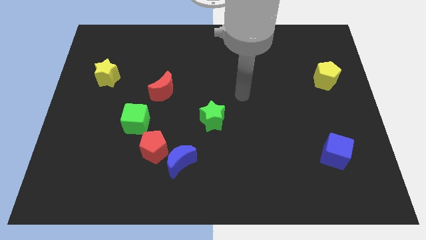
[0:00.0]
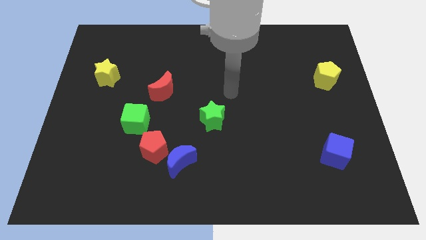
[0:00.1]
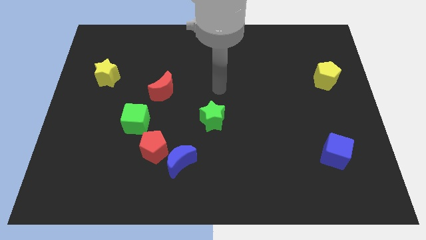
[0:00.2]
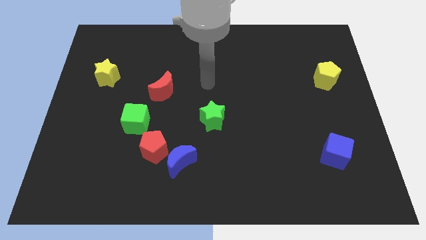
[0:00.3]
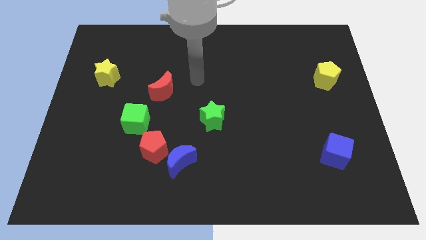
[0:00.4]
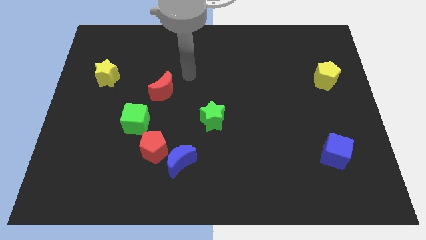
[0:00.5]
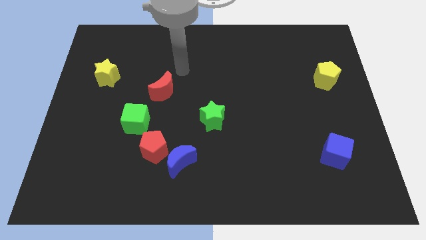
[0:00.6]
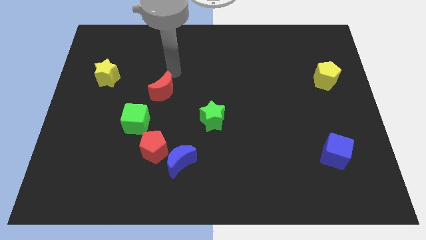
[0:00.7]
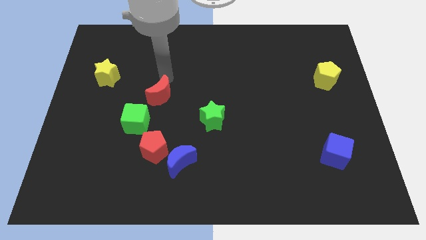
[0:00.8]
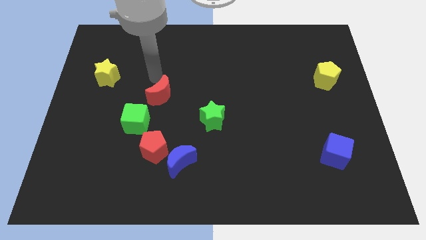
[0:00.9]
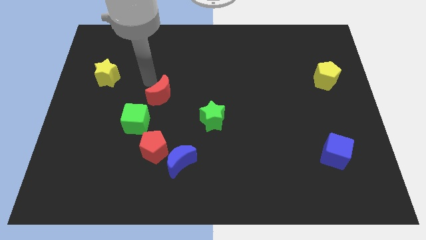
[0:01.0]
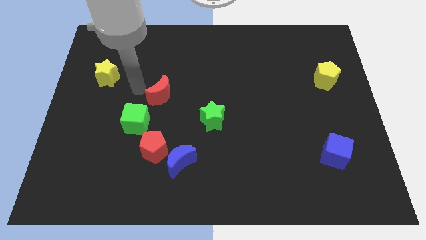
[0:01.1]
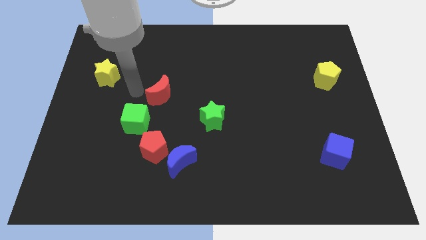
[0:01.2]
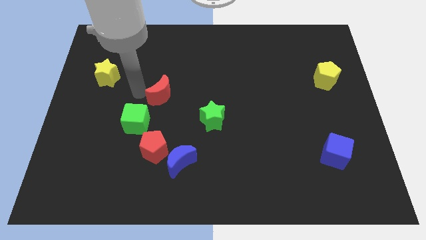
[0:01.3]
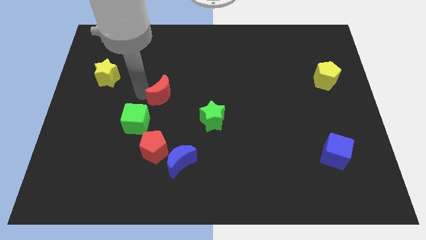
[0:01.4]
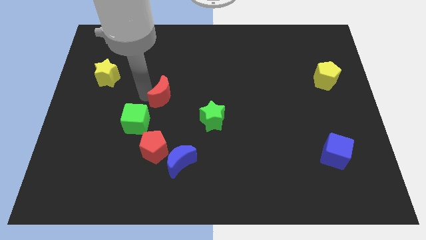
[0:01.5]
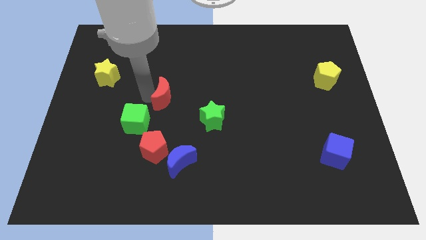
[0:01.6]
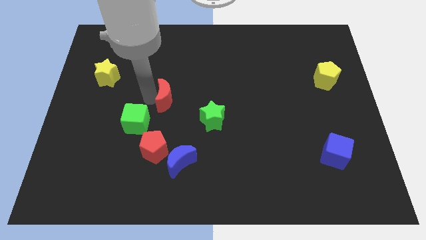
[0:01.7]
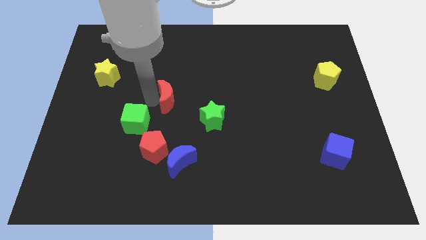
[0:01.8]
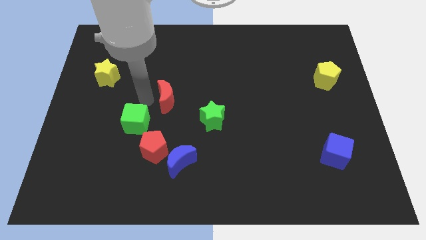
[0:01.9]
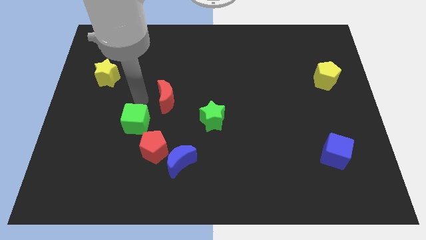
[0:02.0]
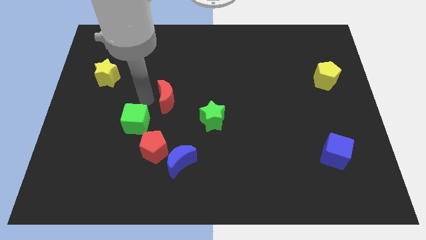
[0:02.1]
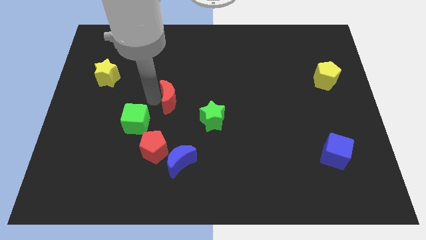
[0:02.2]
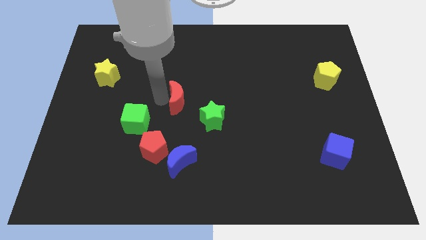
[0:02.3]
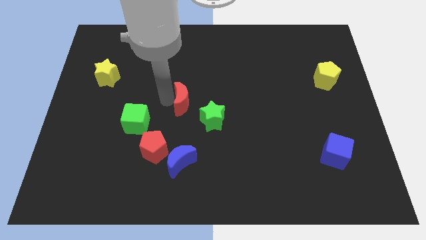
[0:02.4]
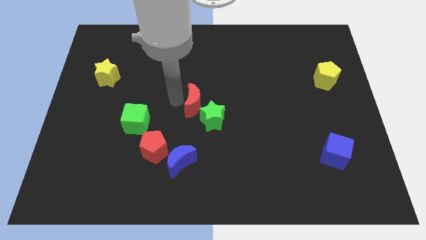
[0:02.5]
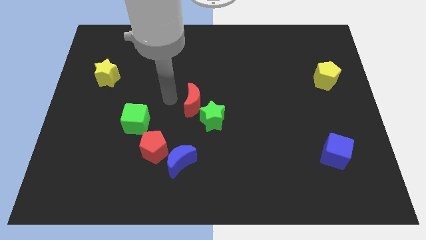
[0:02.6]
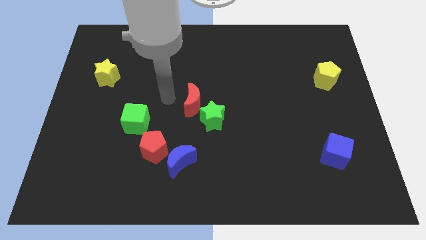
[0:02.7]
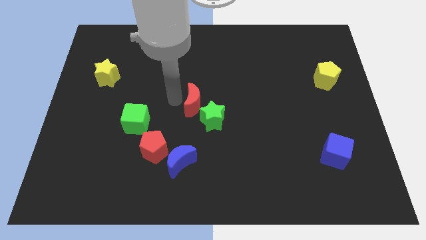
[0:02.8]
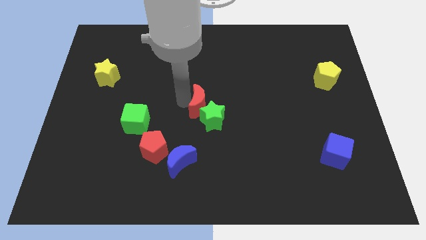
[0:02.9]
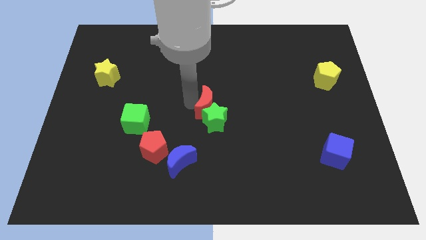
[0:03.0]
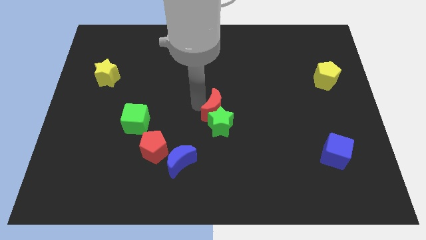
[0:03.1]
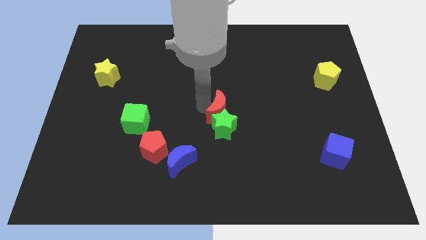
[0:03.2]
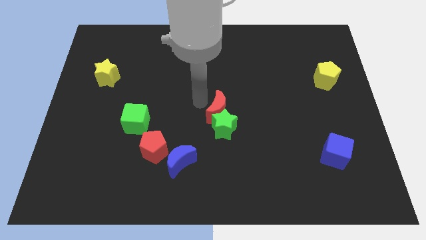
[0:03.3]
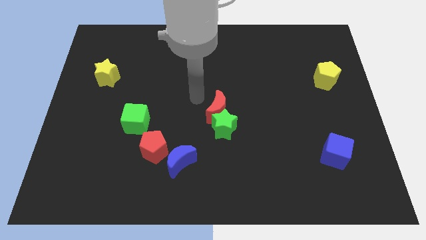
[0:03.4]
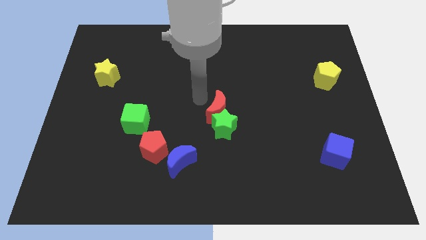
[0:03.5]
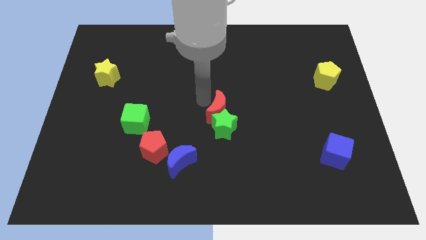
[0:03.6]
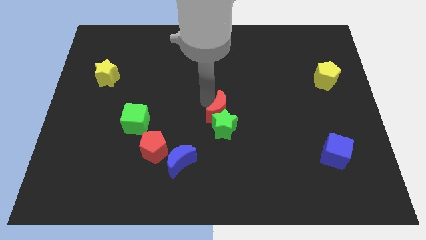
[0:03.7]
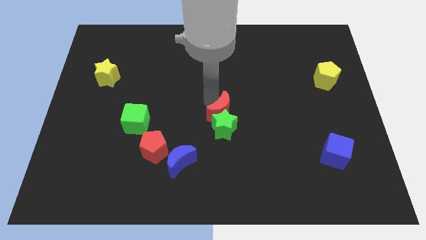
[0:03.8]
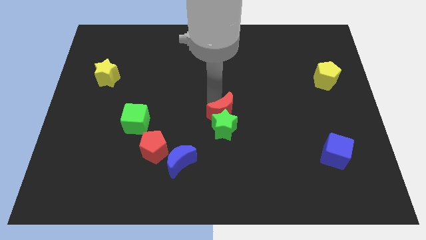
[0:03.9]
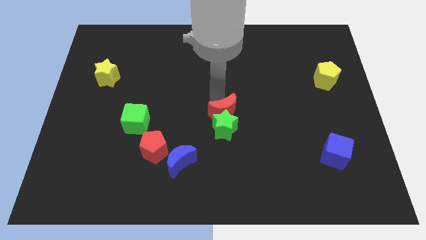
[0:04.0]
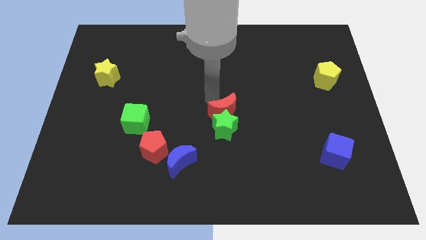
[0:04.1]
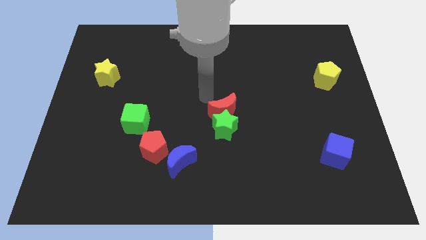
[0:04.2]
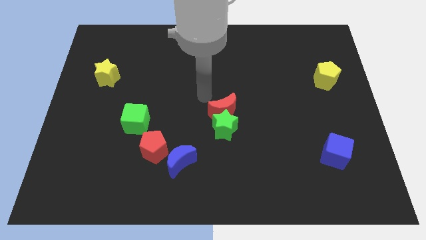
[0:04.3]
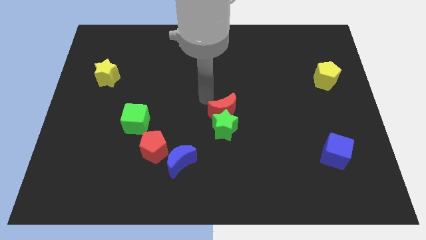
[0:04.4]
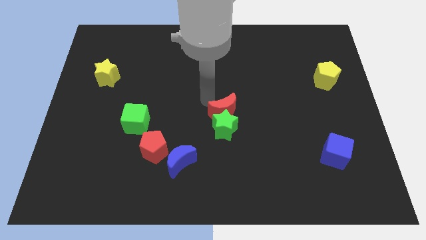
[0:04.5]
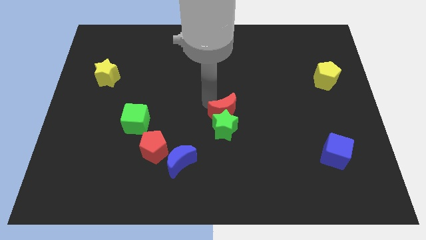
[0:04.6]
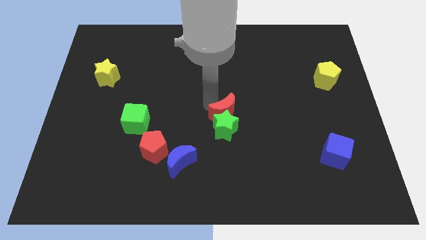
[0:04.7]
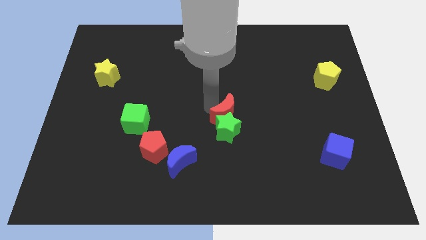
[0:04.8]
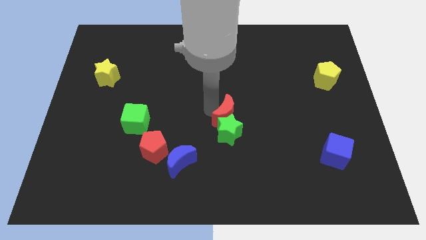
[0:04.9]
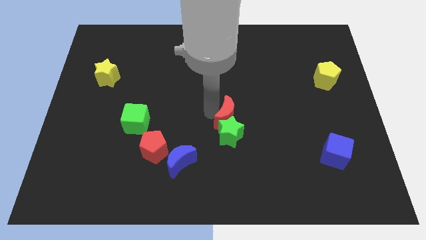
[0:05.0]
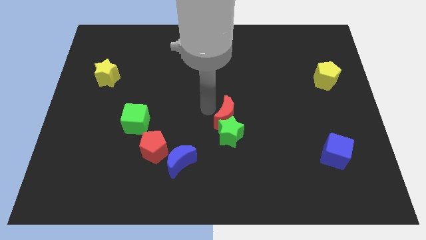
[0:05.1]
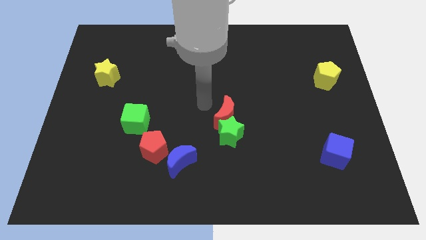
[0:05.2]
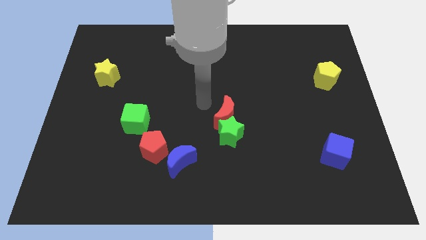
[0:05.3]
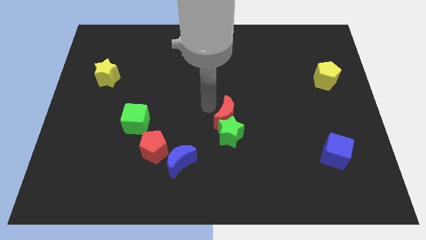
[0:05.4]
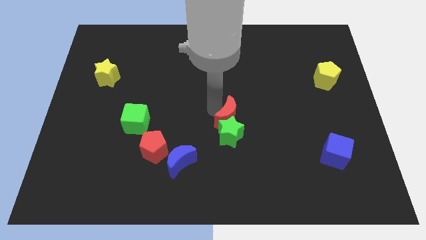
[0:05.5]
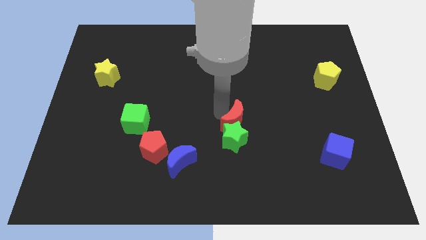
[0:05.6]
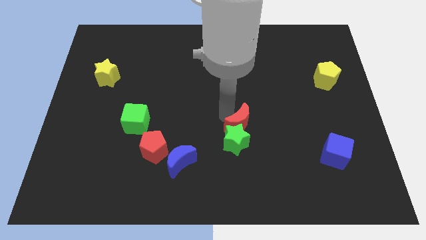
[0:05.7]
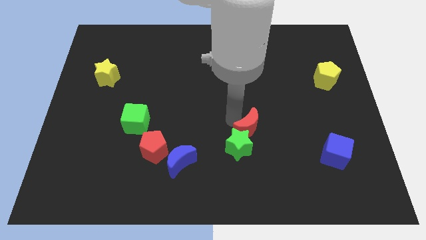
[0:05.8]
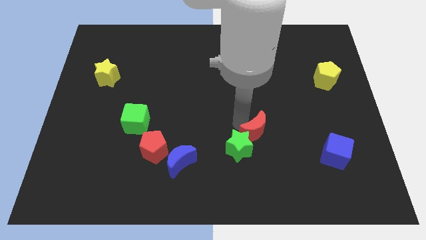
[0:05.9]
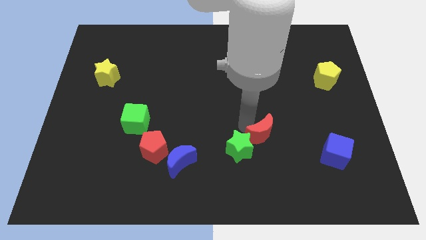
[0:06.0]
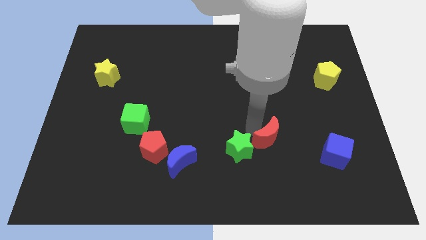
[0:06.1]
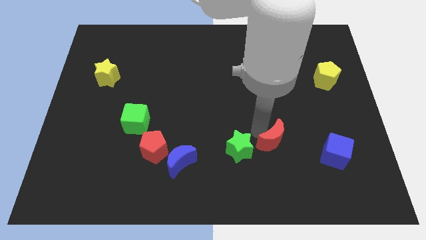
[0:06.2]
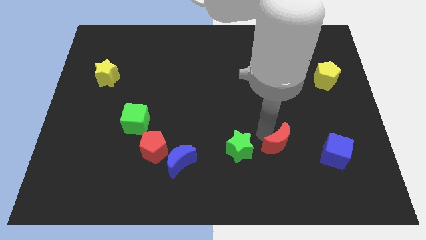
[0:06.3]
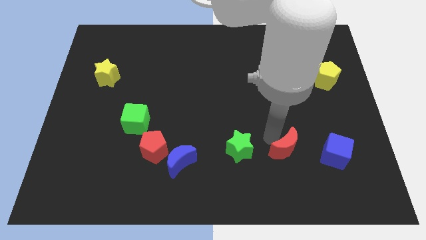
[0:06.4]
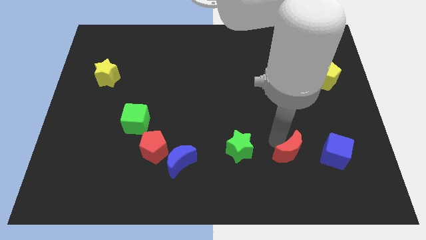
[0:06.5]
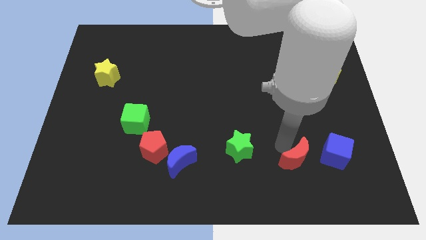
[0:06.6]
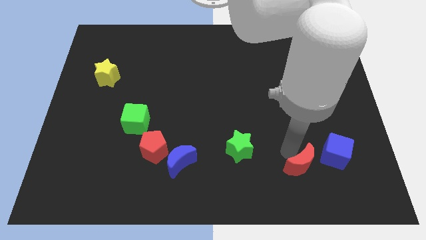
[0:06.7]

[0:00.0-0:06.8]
move the red moon diagonally down and to the left of the blue cube

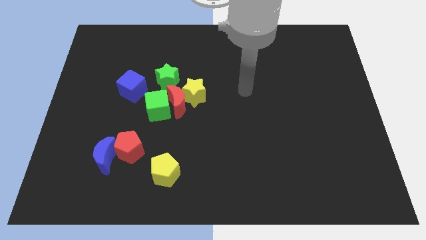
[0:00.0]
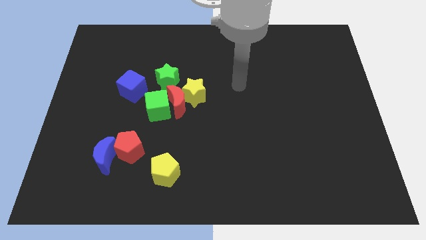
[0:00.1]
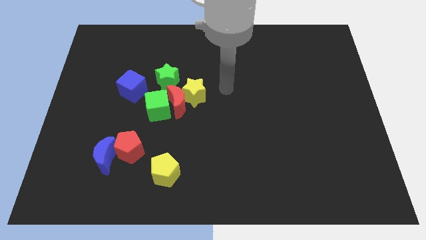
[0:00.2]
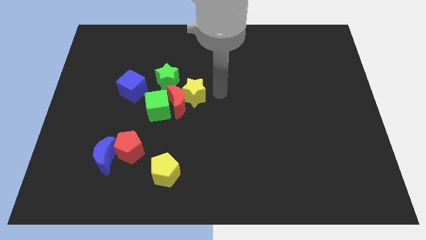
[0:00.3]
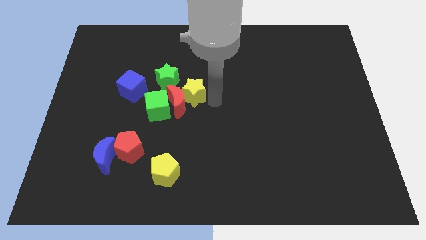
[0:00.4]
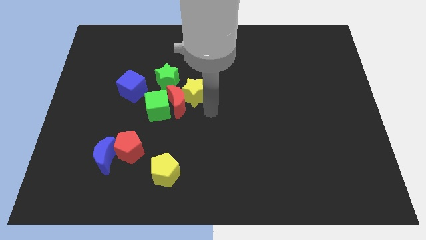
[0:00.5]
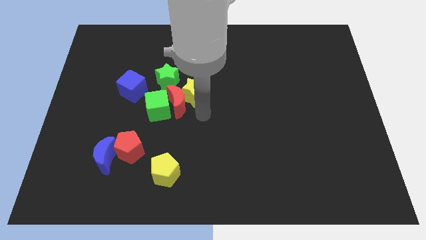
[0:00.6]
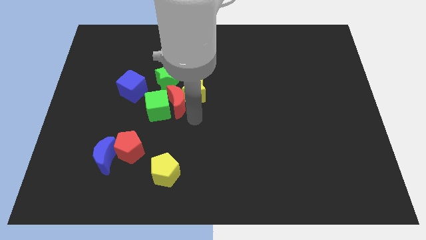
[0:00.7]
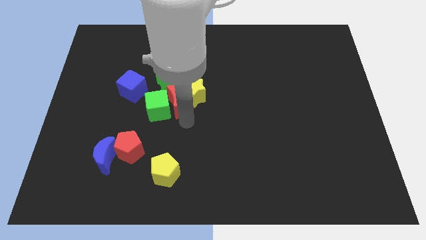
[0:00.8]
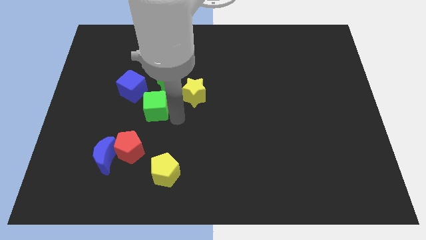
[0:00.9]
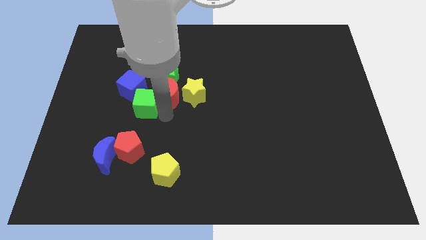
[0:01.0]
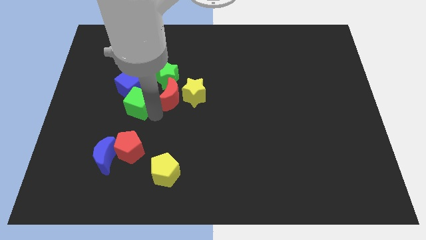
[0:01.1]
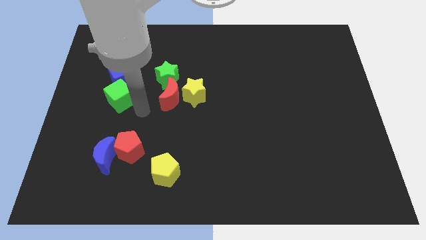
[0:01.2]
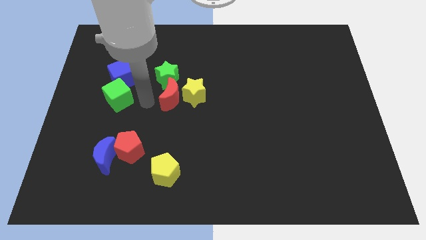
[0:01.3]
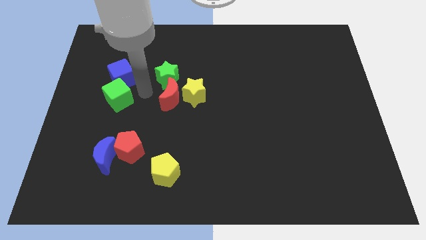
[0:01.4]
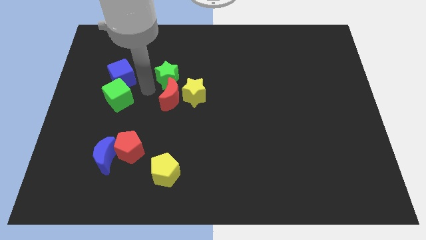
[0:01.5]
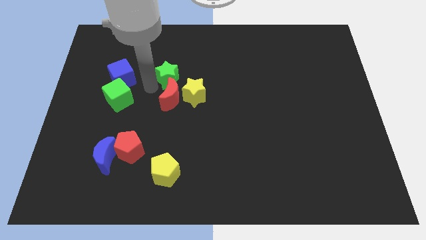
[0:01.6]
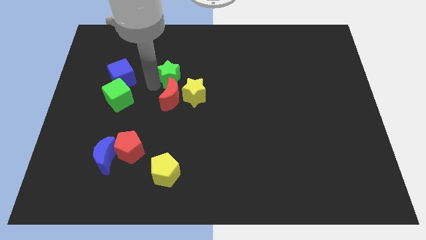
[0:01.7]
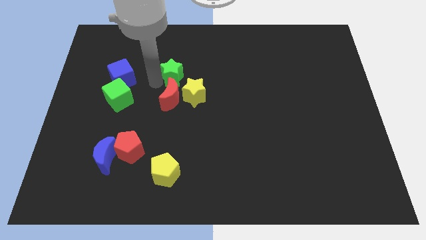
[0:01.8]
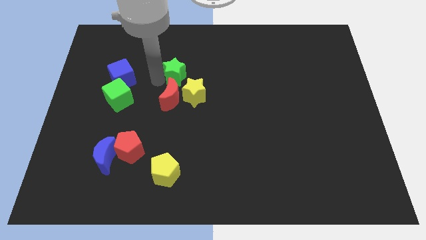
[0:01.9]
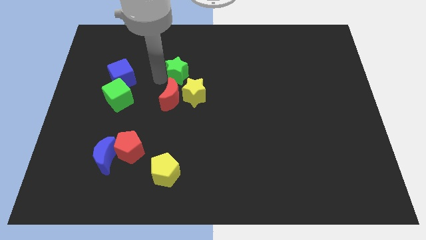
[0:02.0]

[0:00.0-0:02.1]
push the green star to the top of the yellow star
